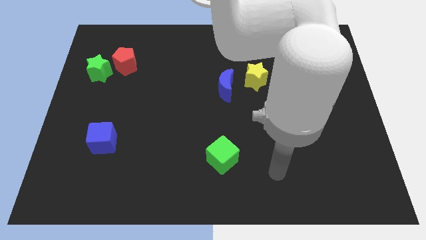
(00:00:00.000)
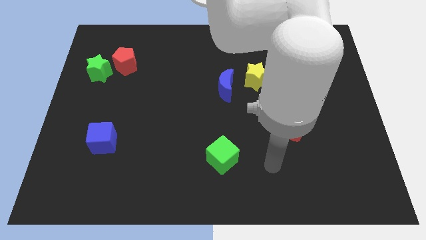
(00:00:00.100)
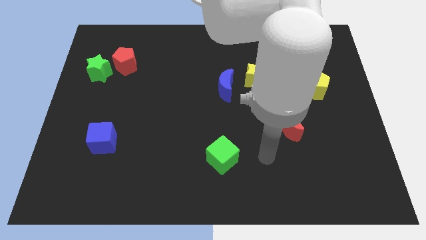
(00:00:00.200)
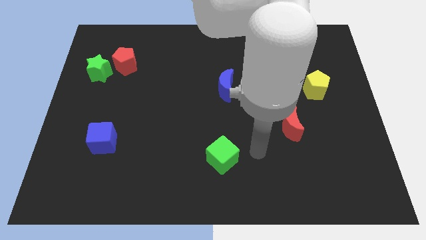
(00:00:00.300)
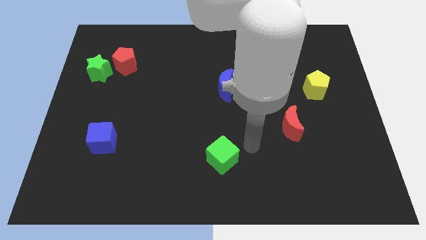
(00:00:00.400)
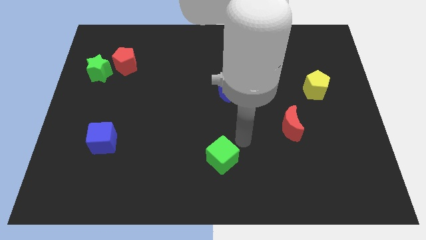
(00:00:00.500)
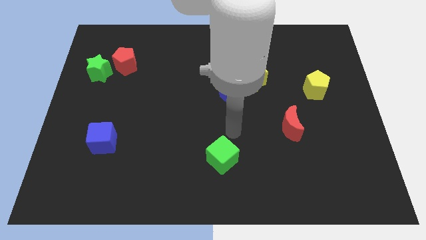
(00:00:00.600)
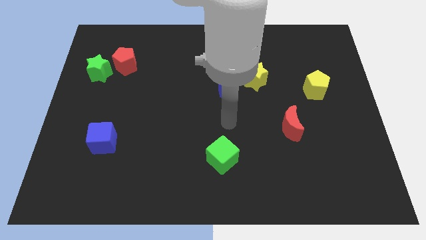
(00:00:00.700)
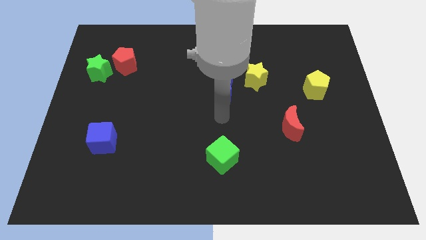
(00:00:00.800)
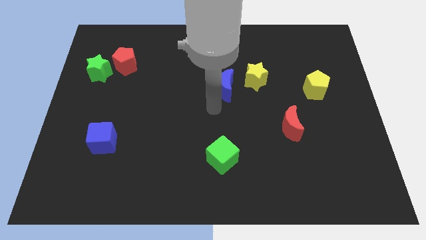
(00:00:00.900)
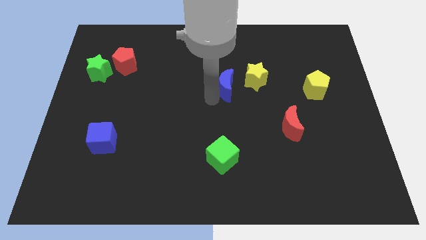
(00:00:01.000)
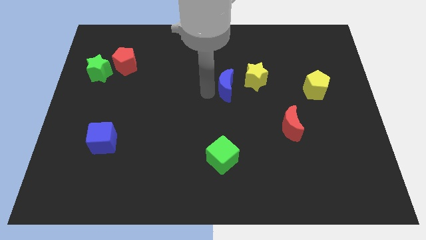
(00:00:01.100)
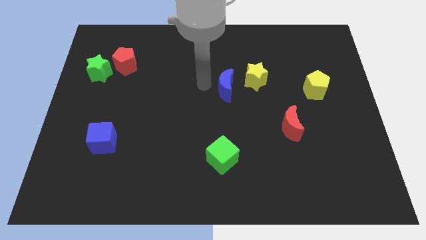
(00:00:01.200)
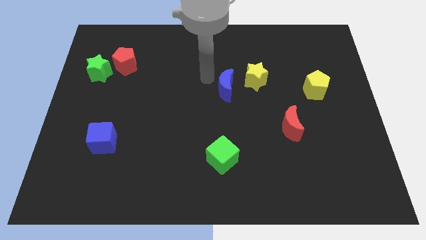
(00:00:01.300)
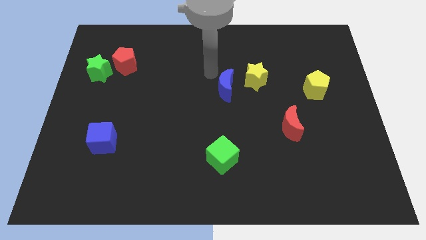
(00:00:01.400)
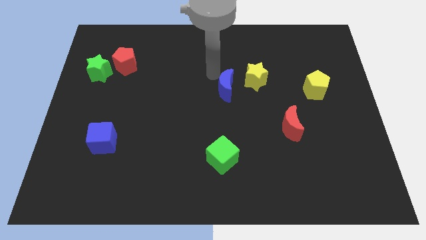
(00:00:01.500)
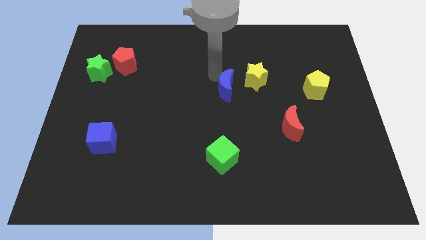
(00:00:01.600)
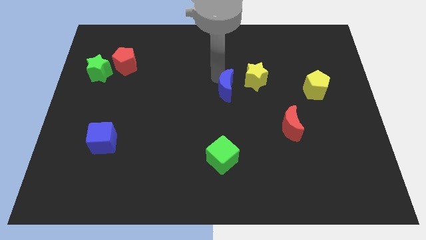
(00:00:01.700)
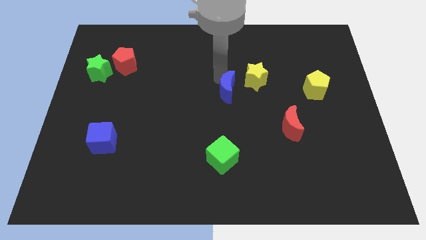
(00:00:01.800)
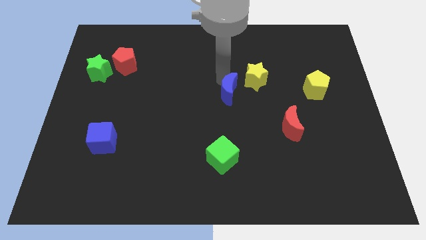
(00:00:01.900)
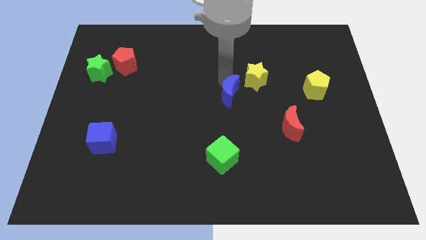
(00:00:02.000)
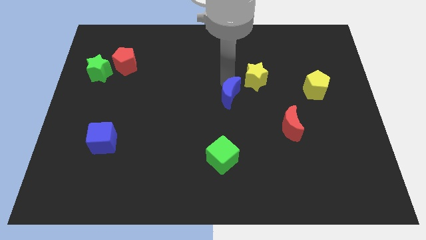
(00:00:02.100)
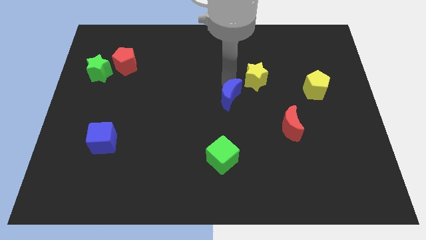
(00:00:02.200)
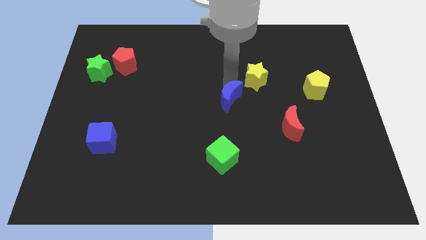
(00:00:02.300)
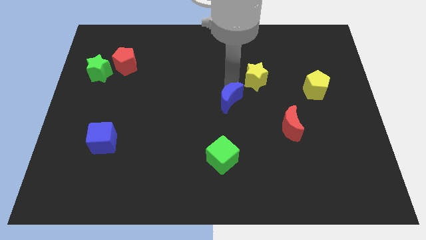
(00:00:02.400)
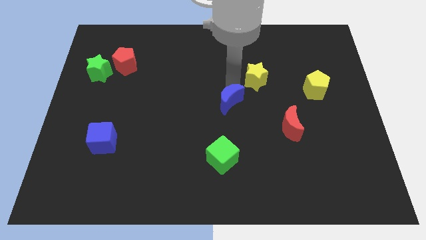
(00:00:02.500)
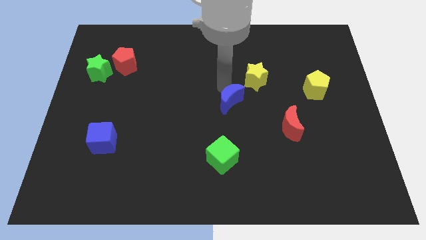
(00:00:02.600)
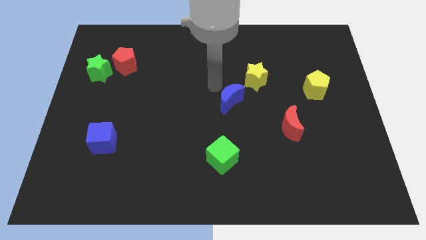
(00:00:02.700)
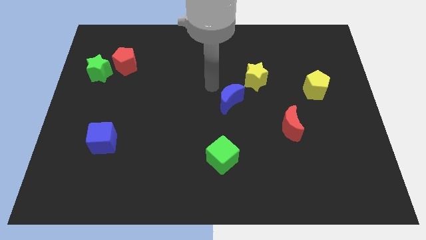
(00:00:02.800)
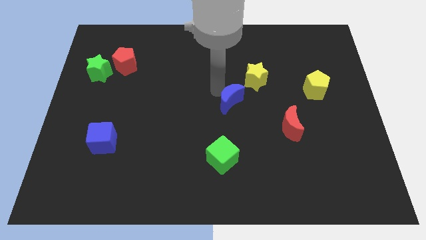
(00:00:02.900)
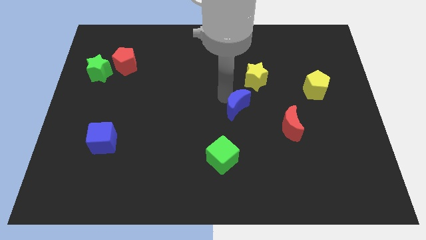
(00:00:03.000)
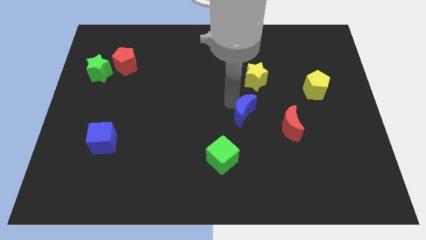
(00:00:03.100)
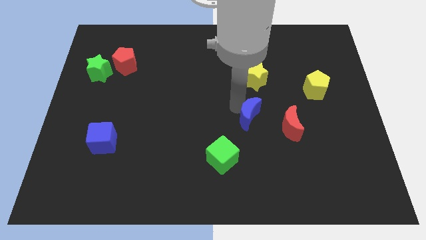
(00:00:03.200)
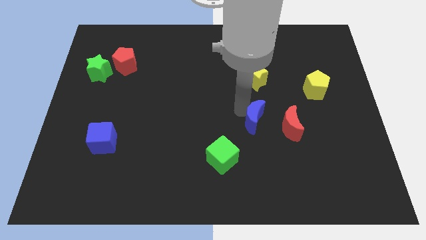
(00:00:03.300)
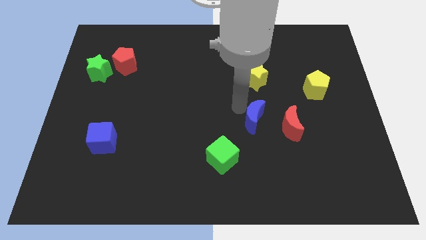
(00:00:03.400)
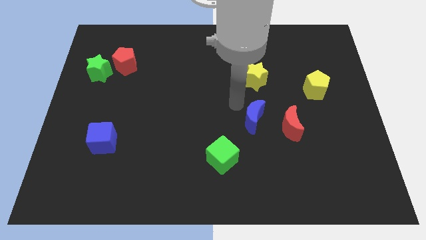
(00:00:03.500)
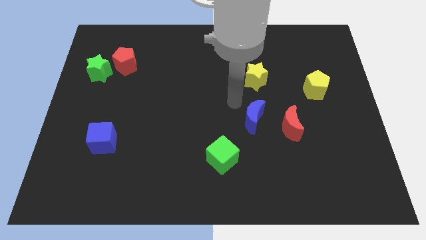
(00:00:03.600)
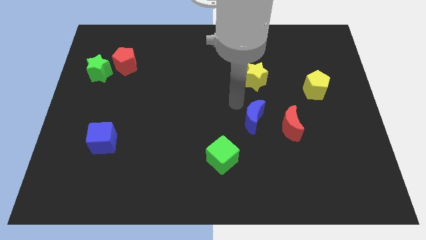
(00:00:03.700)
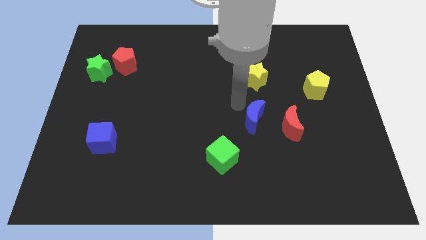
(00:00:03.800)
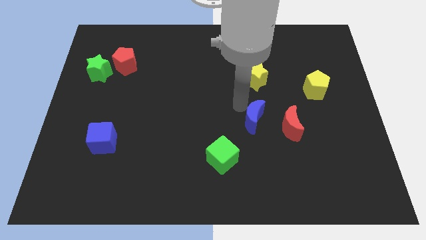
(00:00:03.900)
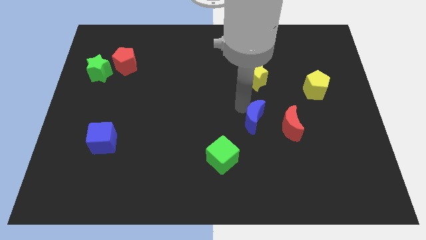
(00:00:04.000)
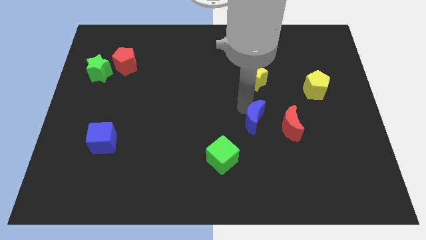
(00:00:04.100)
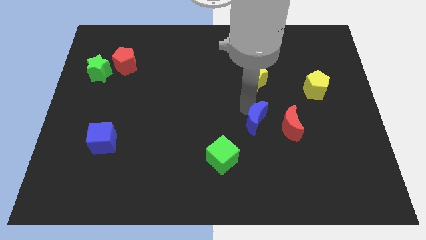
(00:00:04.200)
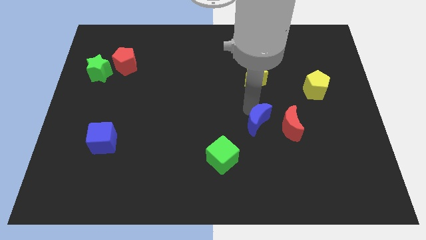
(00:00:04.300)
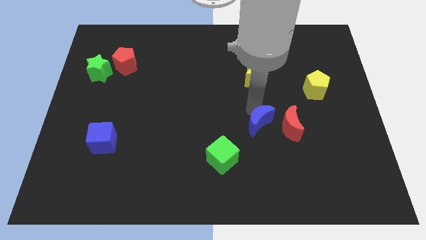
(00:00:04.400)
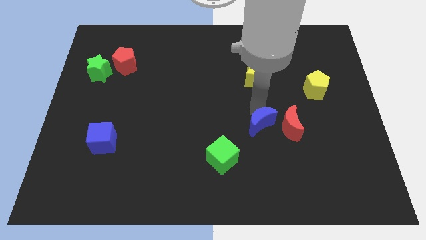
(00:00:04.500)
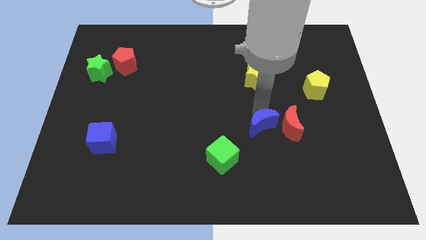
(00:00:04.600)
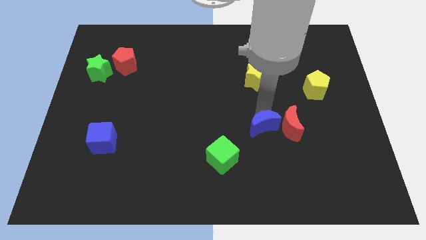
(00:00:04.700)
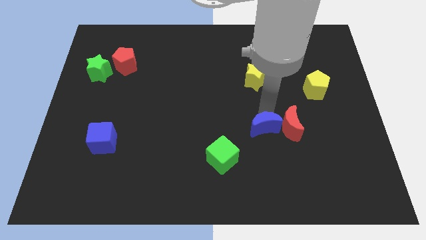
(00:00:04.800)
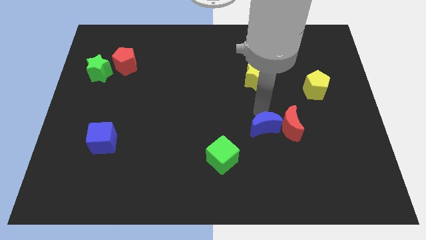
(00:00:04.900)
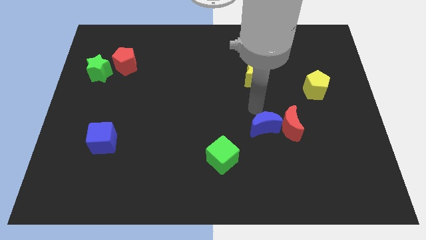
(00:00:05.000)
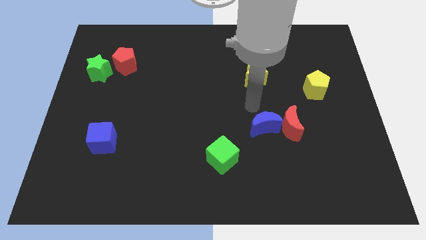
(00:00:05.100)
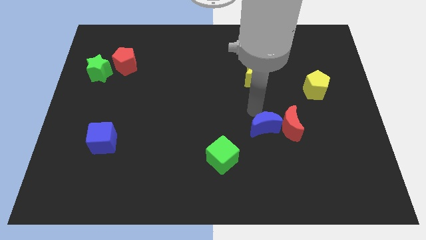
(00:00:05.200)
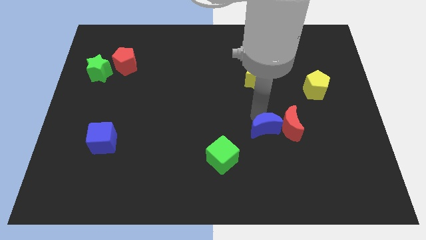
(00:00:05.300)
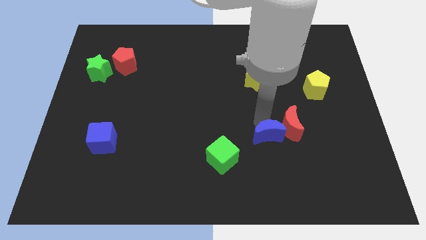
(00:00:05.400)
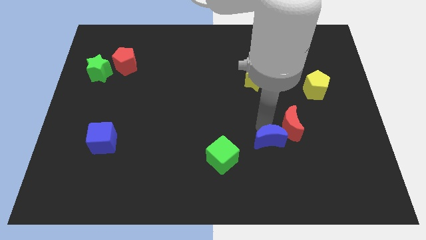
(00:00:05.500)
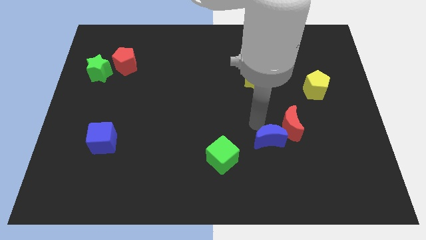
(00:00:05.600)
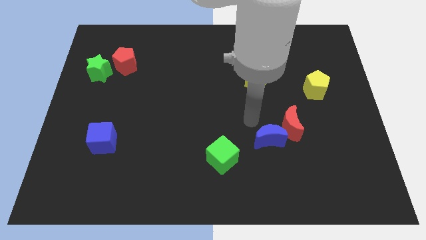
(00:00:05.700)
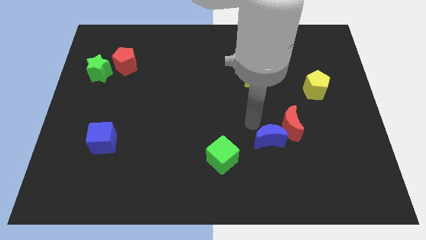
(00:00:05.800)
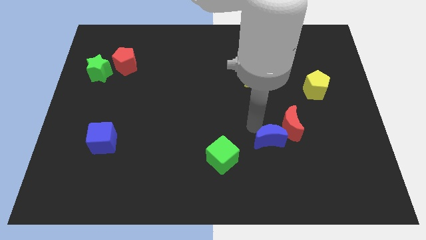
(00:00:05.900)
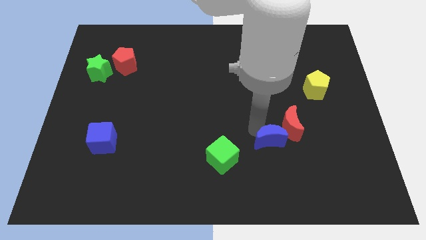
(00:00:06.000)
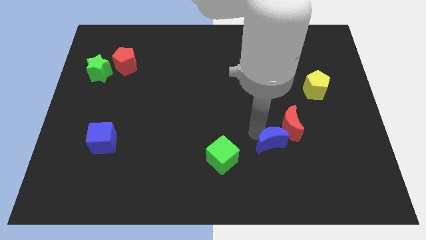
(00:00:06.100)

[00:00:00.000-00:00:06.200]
push the blue moon below the red moon

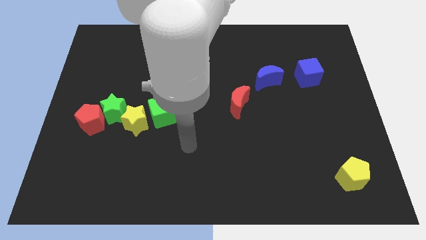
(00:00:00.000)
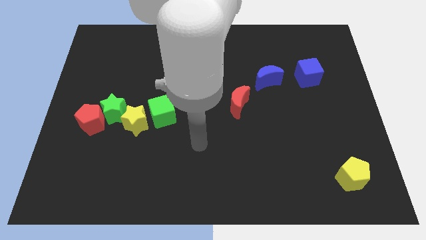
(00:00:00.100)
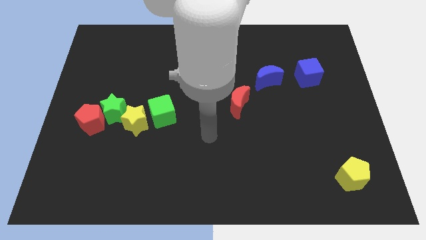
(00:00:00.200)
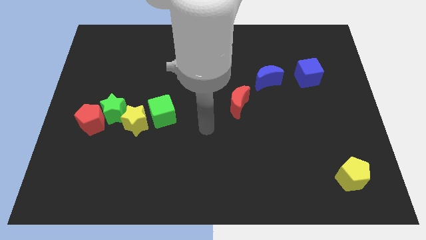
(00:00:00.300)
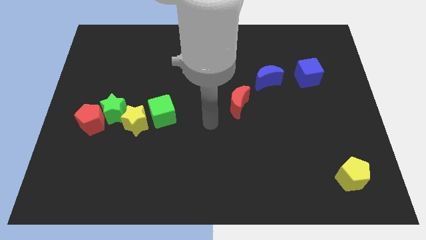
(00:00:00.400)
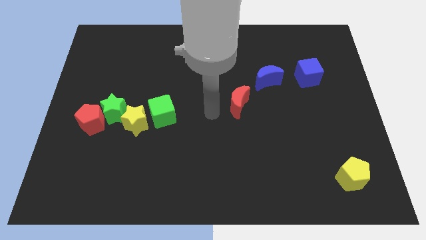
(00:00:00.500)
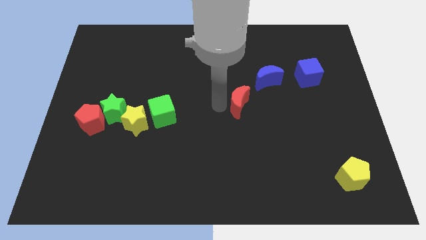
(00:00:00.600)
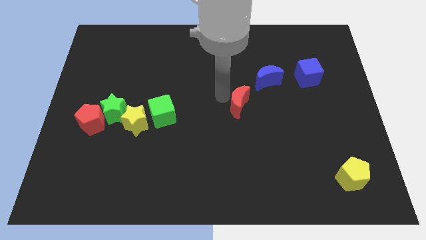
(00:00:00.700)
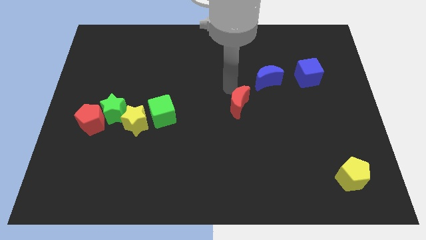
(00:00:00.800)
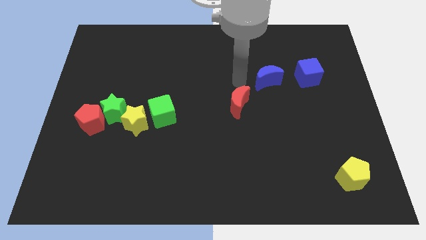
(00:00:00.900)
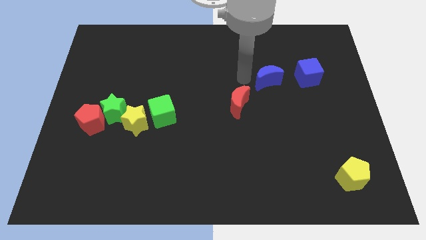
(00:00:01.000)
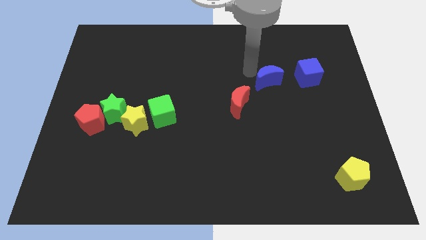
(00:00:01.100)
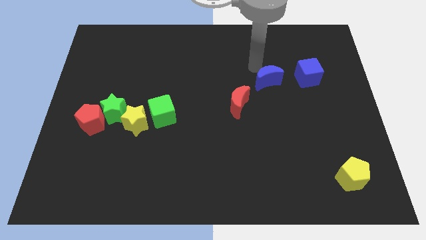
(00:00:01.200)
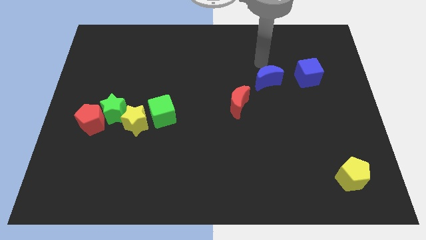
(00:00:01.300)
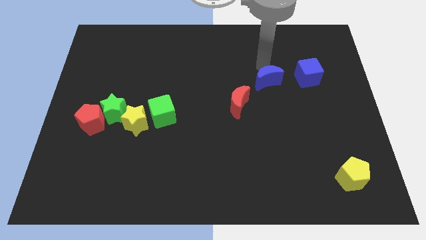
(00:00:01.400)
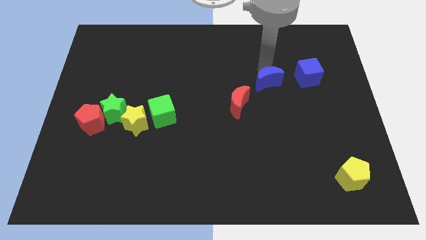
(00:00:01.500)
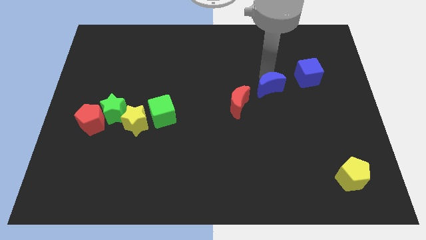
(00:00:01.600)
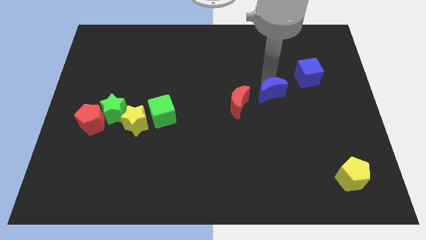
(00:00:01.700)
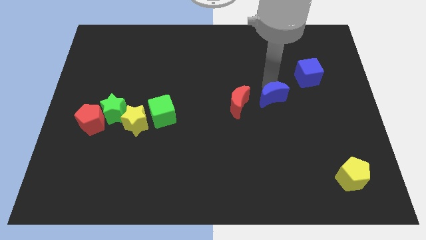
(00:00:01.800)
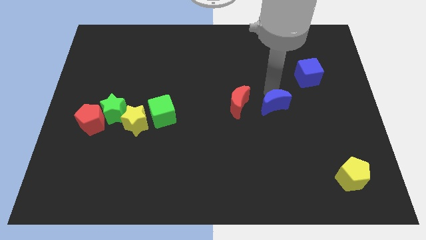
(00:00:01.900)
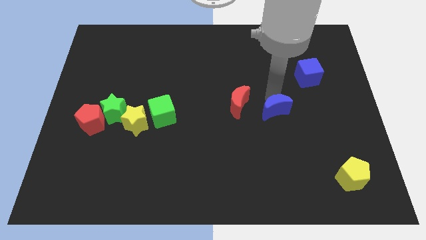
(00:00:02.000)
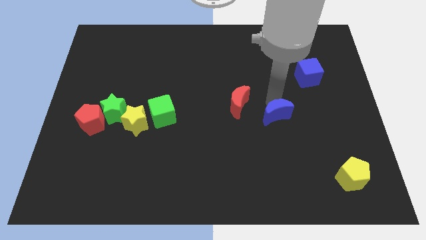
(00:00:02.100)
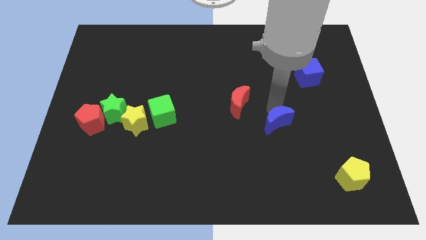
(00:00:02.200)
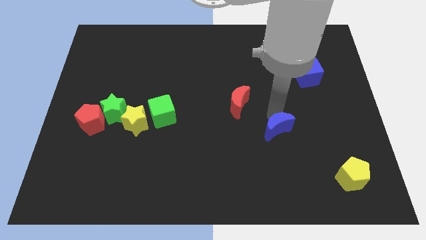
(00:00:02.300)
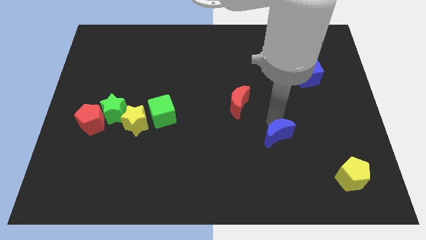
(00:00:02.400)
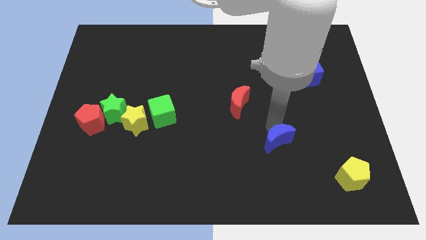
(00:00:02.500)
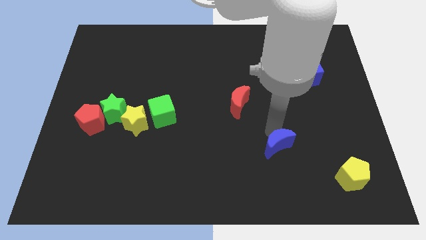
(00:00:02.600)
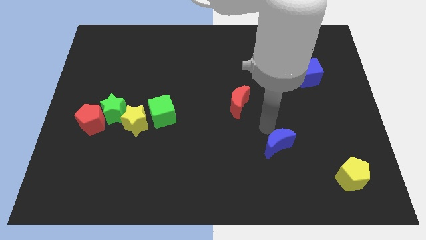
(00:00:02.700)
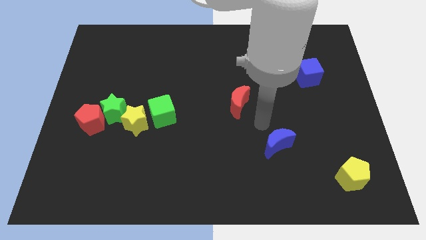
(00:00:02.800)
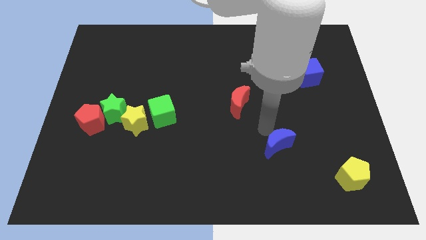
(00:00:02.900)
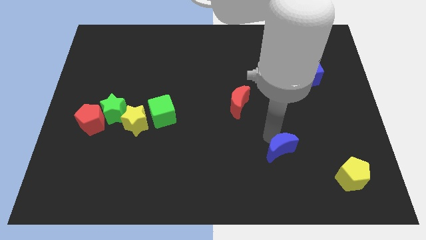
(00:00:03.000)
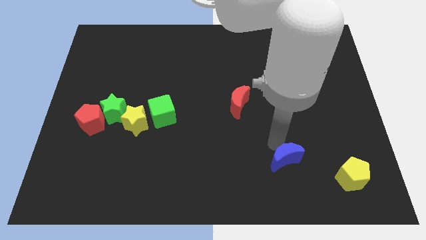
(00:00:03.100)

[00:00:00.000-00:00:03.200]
put the blue moon to the left side of the yellow pentagon
